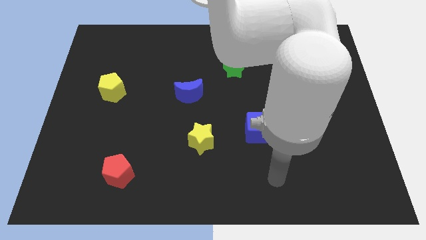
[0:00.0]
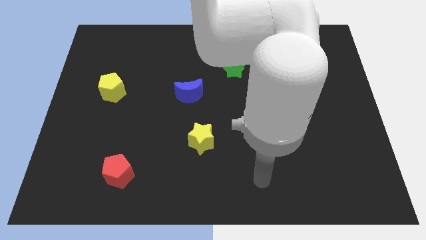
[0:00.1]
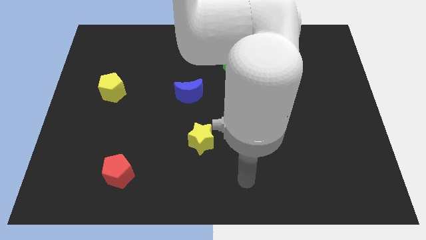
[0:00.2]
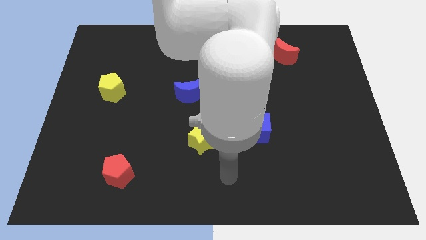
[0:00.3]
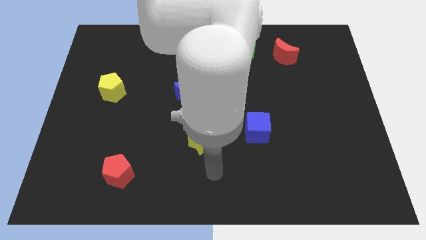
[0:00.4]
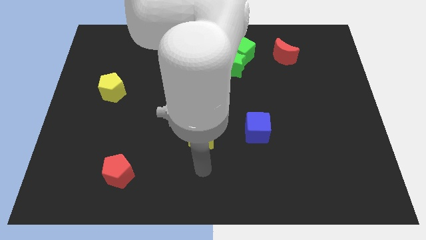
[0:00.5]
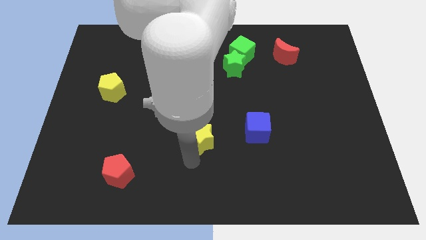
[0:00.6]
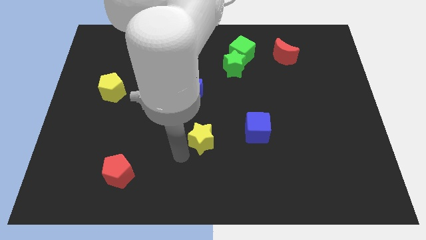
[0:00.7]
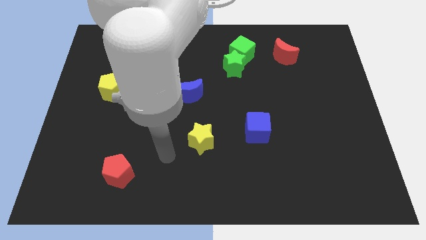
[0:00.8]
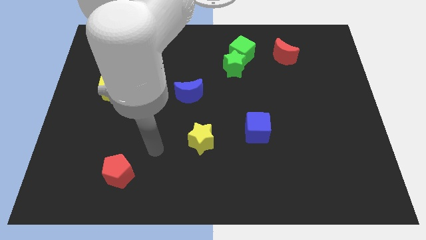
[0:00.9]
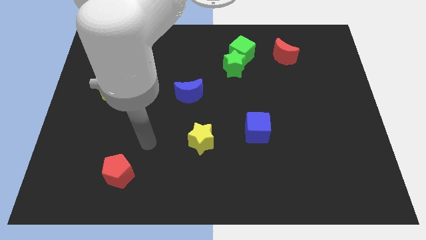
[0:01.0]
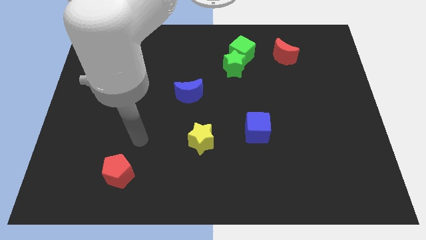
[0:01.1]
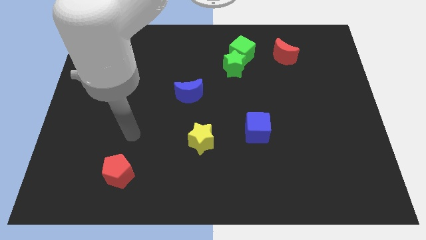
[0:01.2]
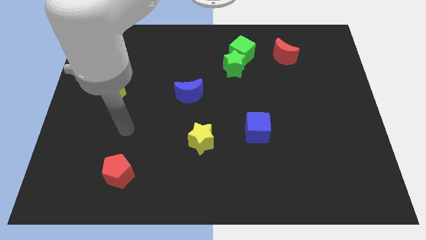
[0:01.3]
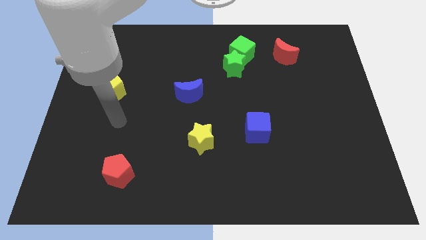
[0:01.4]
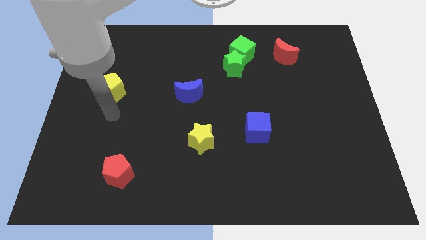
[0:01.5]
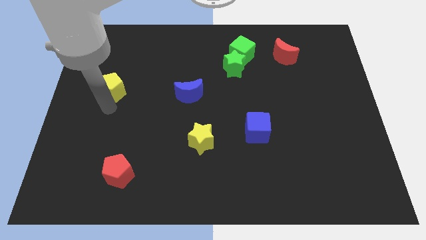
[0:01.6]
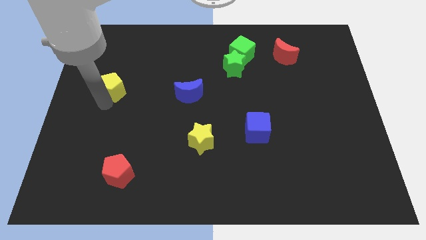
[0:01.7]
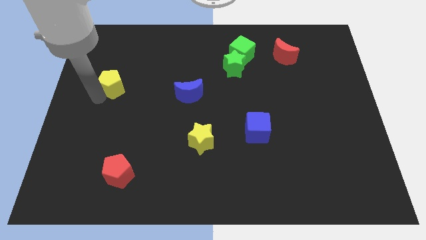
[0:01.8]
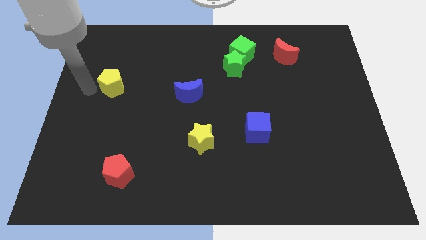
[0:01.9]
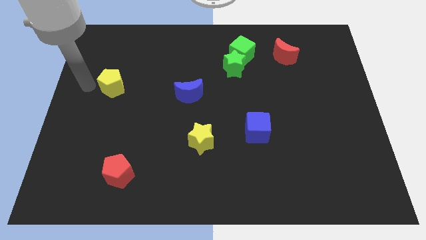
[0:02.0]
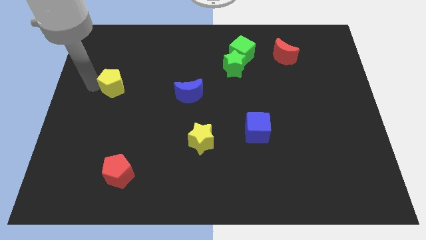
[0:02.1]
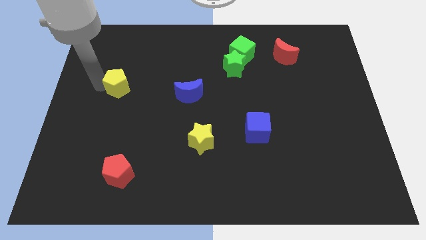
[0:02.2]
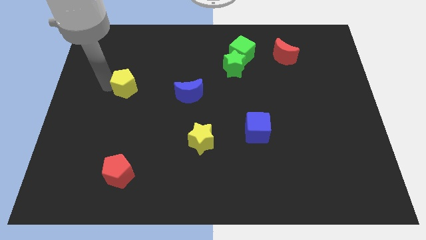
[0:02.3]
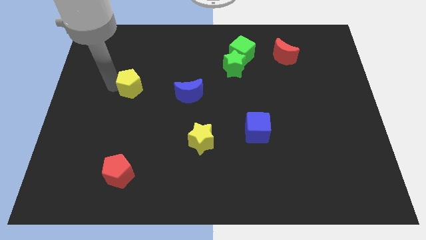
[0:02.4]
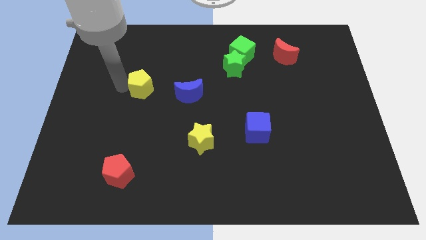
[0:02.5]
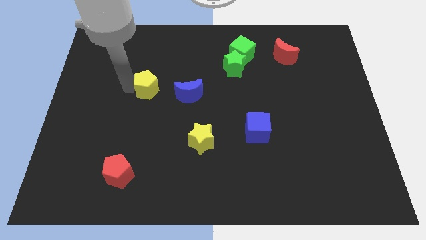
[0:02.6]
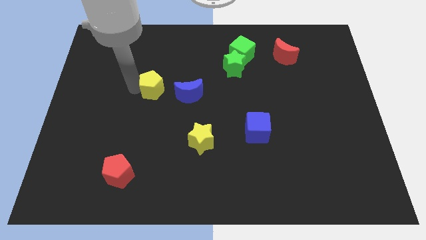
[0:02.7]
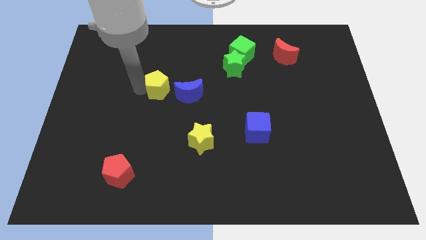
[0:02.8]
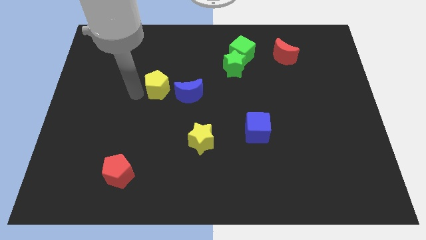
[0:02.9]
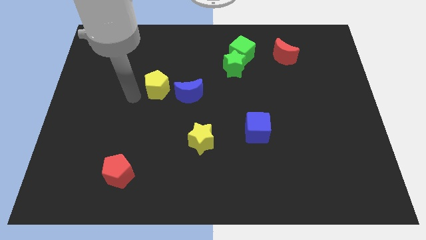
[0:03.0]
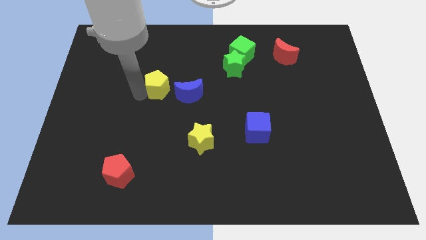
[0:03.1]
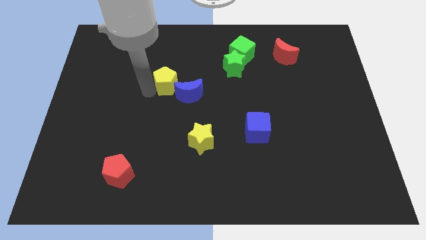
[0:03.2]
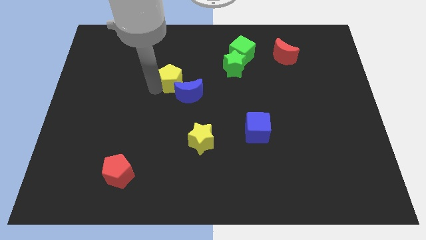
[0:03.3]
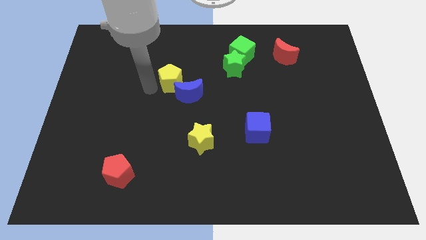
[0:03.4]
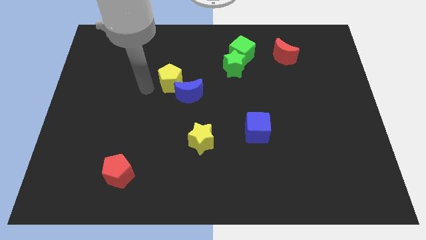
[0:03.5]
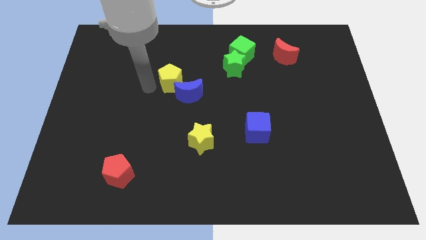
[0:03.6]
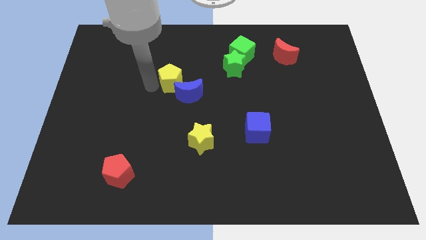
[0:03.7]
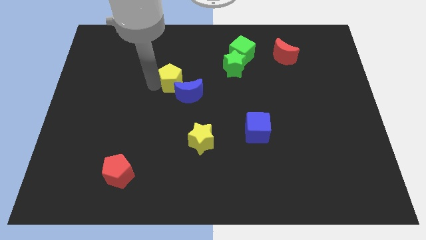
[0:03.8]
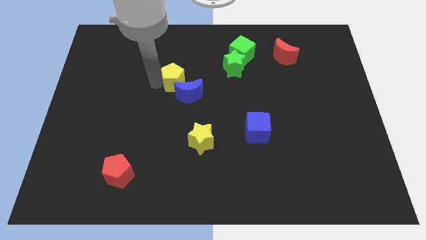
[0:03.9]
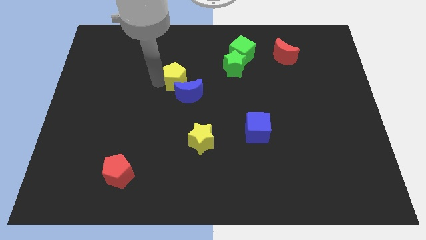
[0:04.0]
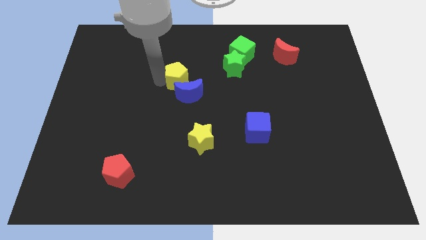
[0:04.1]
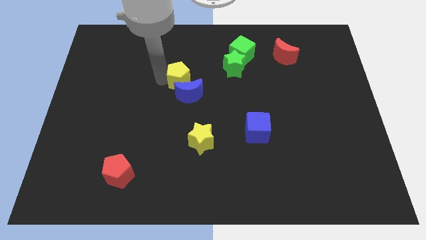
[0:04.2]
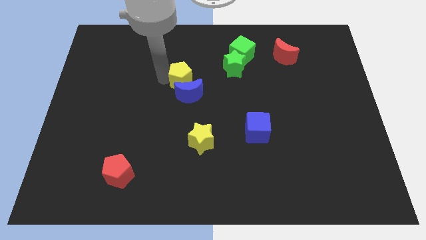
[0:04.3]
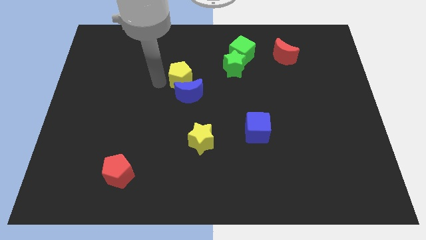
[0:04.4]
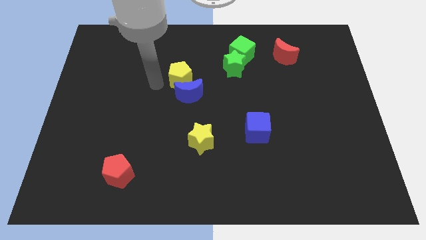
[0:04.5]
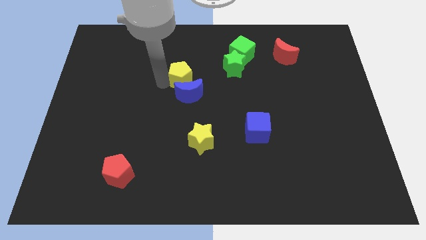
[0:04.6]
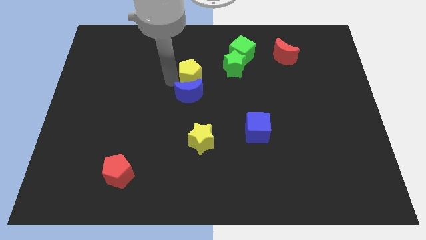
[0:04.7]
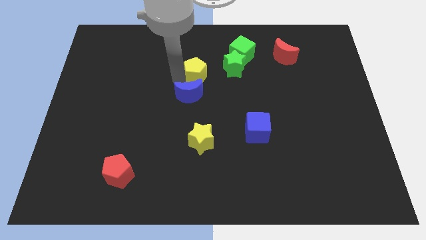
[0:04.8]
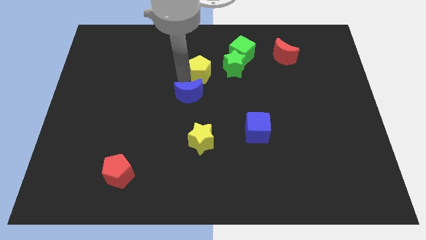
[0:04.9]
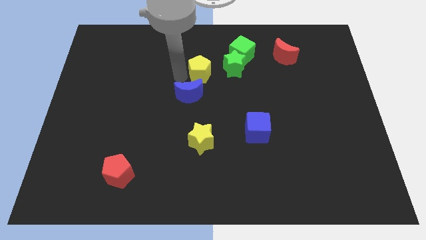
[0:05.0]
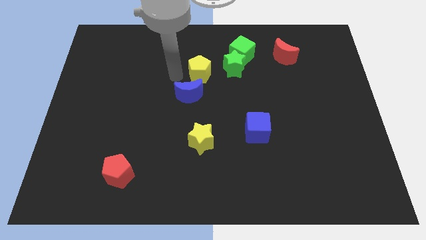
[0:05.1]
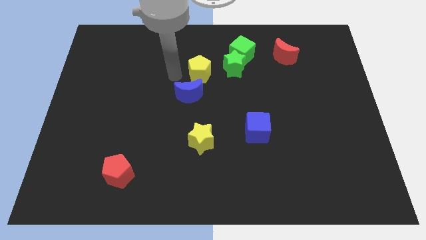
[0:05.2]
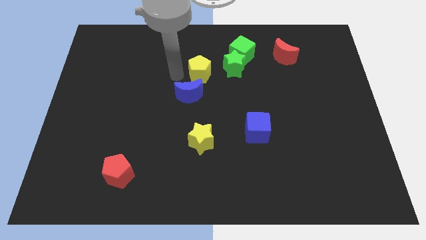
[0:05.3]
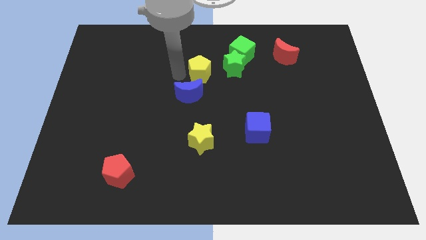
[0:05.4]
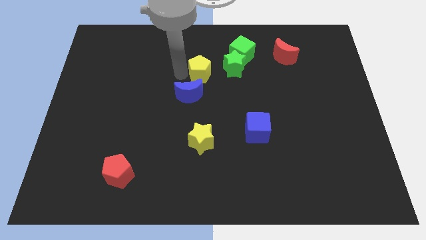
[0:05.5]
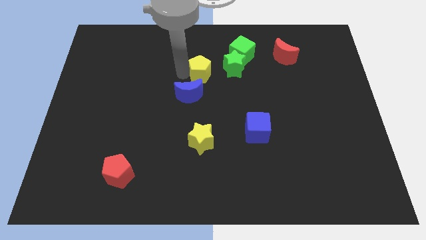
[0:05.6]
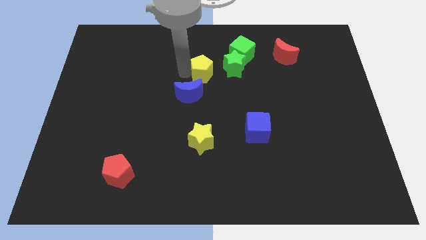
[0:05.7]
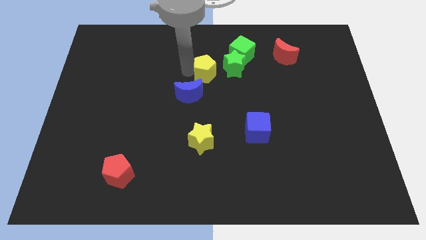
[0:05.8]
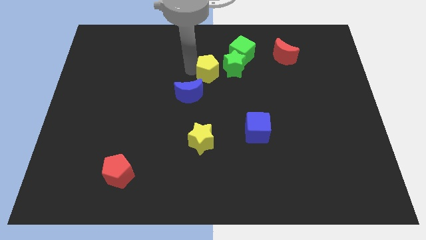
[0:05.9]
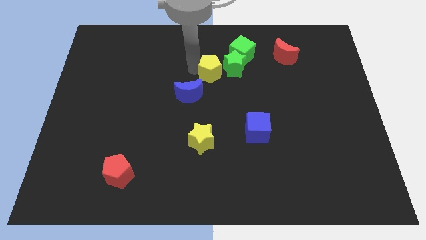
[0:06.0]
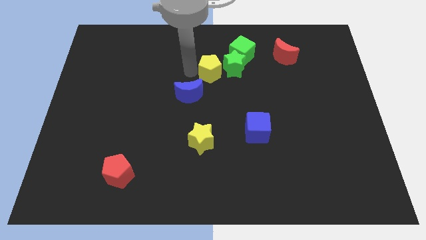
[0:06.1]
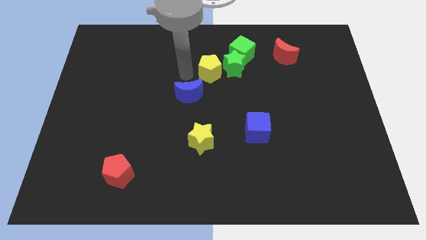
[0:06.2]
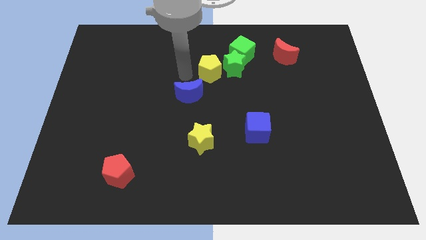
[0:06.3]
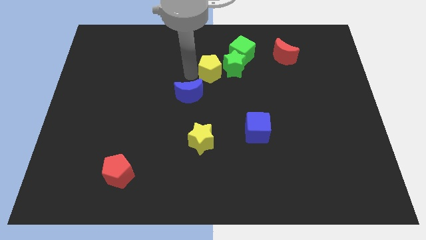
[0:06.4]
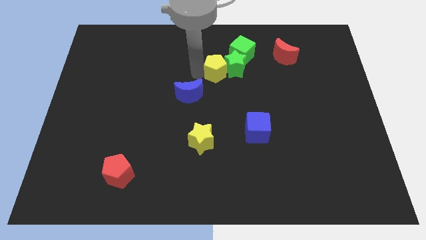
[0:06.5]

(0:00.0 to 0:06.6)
move the yellow pentagon towards the green star

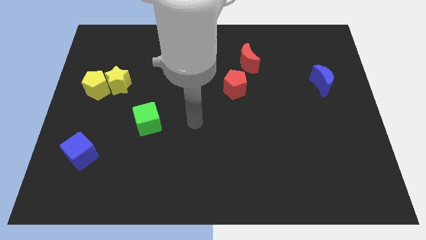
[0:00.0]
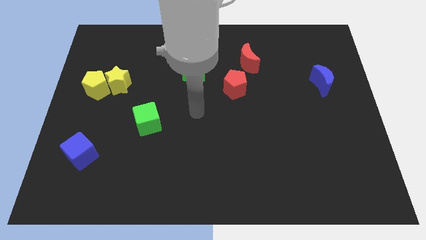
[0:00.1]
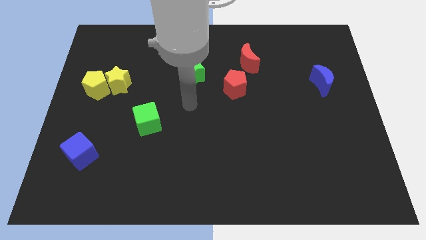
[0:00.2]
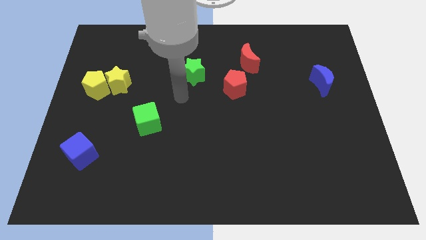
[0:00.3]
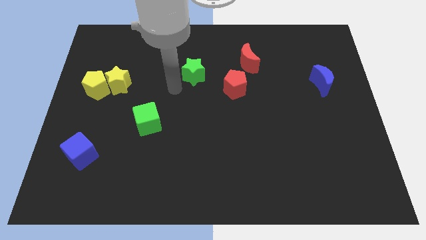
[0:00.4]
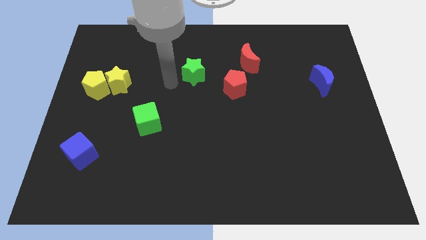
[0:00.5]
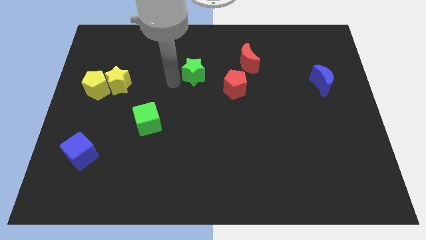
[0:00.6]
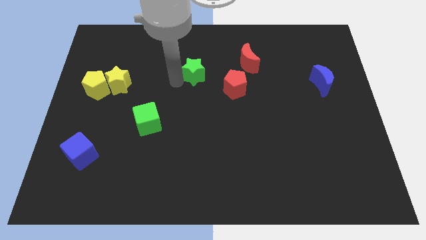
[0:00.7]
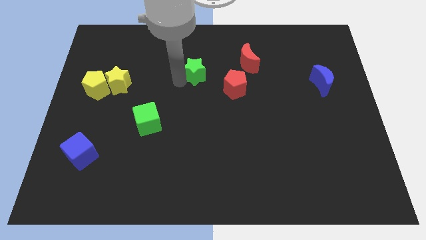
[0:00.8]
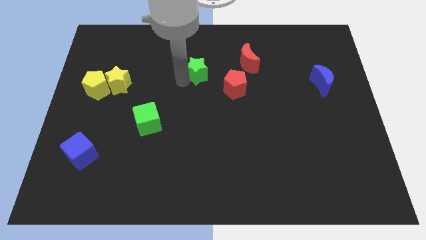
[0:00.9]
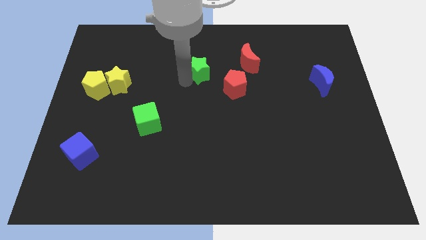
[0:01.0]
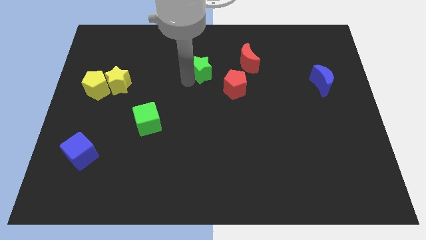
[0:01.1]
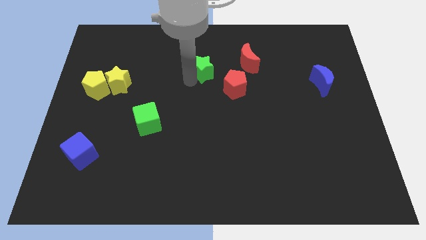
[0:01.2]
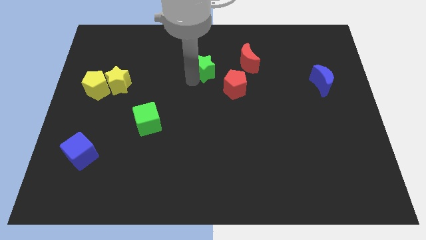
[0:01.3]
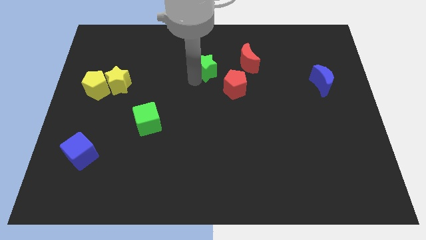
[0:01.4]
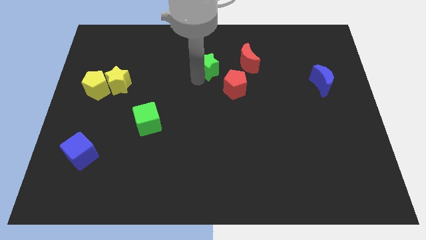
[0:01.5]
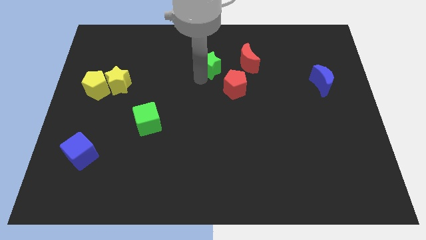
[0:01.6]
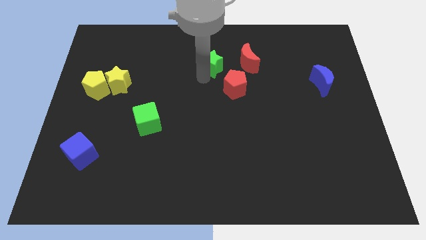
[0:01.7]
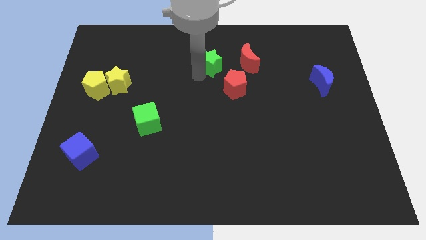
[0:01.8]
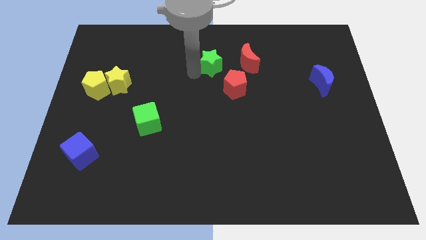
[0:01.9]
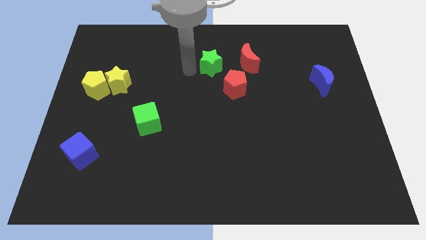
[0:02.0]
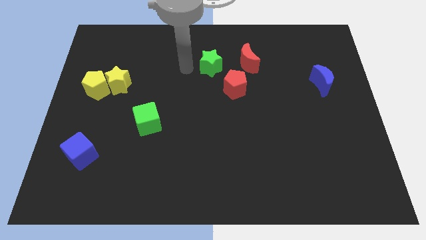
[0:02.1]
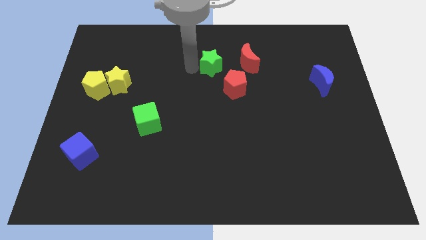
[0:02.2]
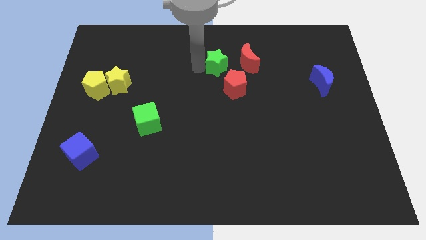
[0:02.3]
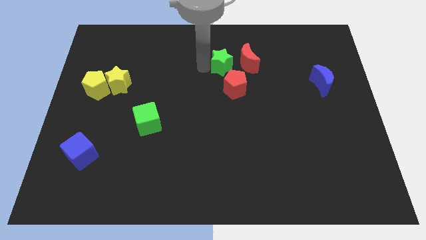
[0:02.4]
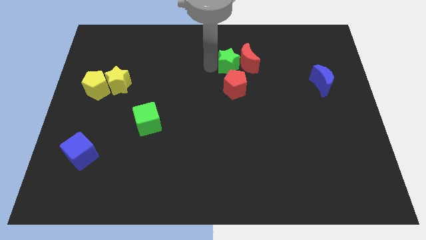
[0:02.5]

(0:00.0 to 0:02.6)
push the green star towards the red moon
